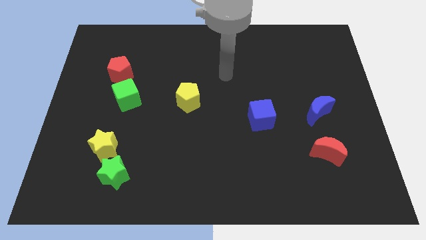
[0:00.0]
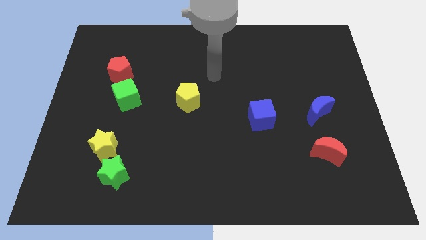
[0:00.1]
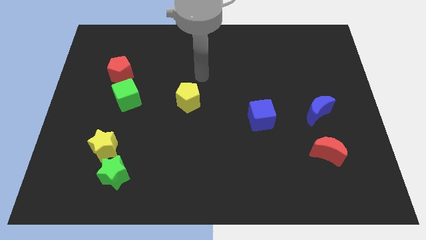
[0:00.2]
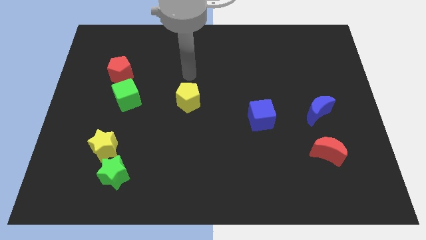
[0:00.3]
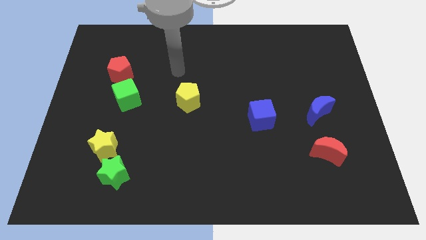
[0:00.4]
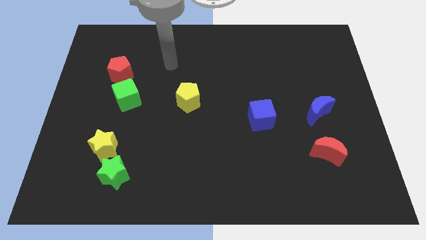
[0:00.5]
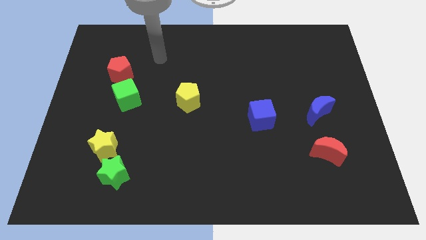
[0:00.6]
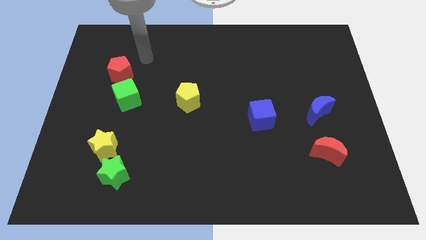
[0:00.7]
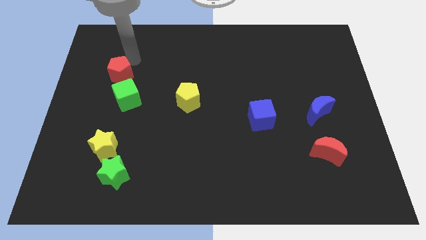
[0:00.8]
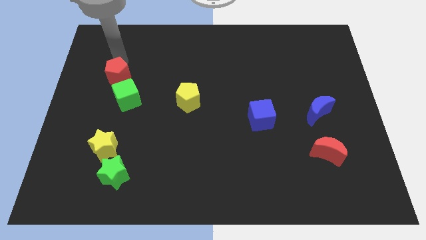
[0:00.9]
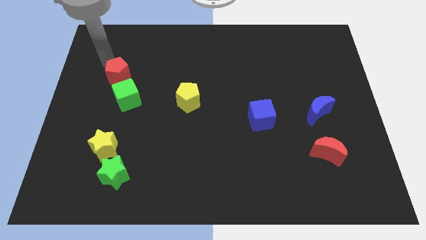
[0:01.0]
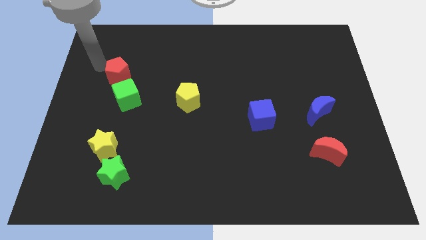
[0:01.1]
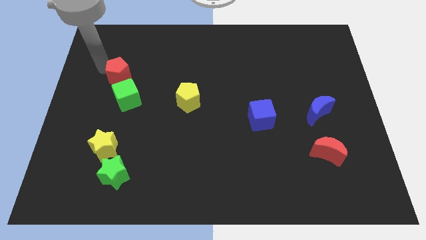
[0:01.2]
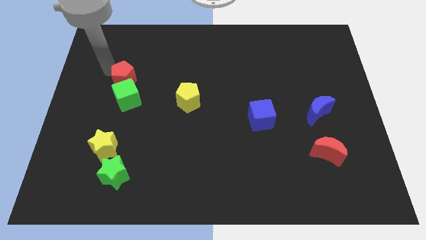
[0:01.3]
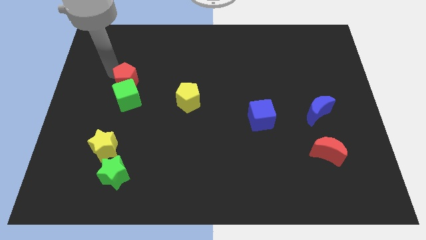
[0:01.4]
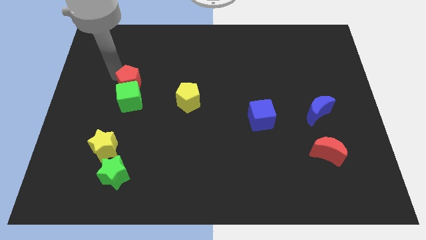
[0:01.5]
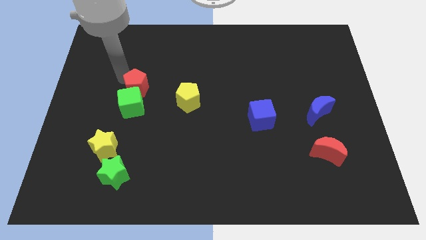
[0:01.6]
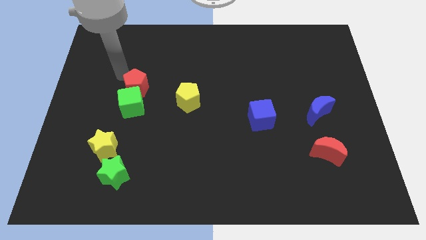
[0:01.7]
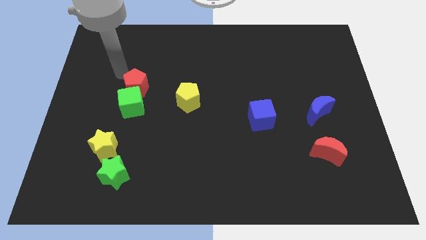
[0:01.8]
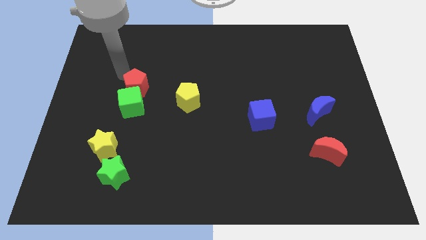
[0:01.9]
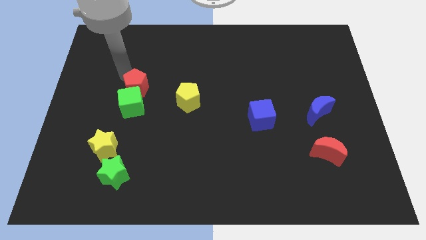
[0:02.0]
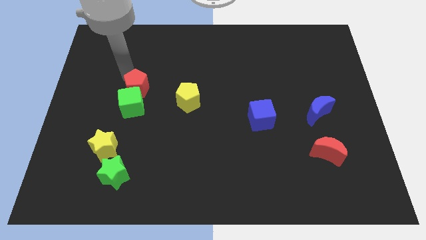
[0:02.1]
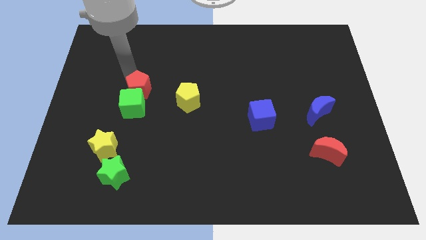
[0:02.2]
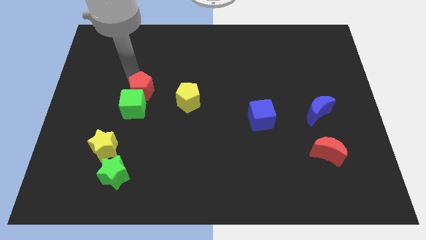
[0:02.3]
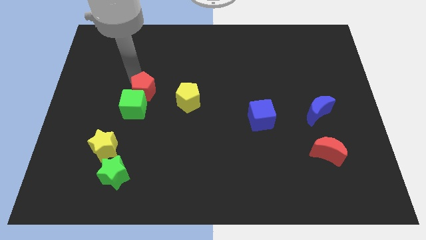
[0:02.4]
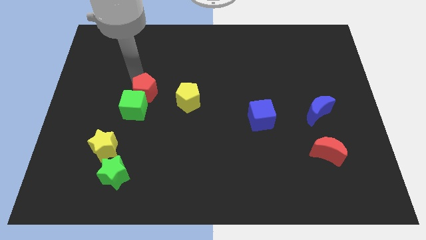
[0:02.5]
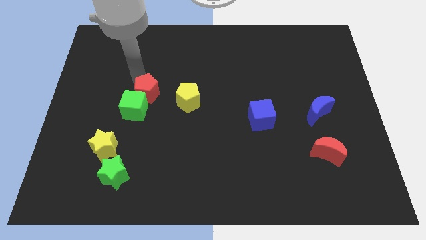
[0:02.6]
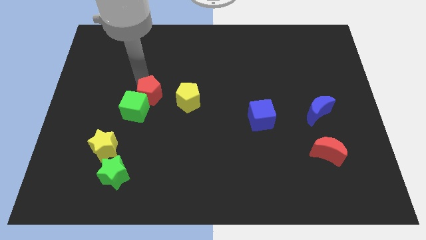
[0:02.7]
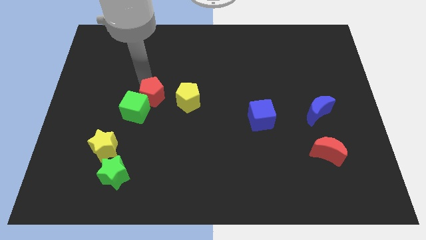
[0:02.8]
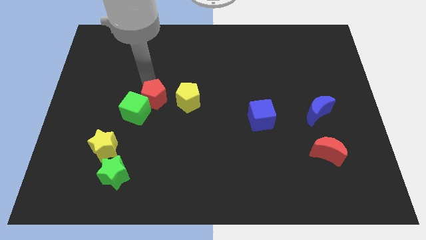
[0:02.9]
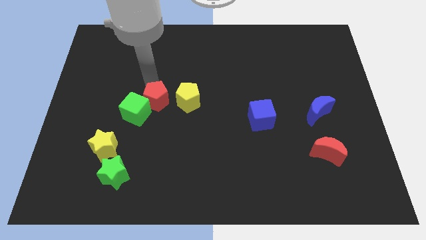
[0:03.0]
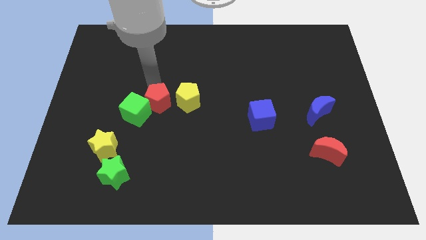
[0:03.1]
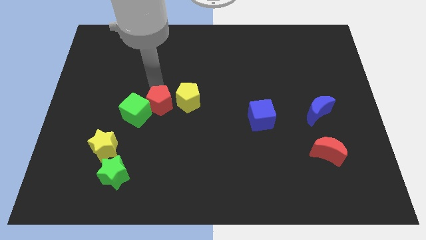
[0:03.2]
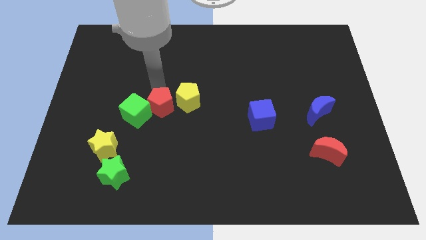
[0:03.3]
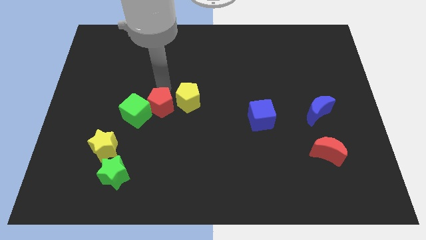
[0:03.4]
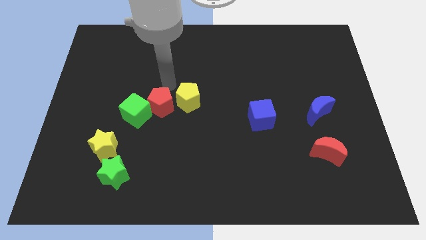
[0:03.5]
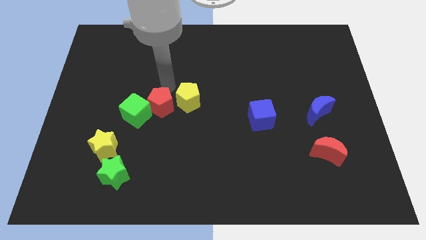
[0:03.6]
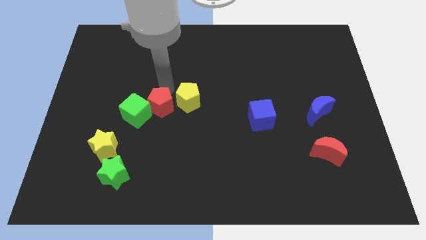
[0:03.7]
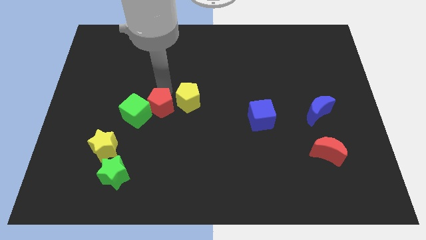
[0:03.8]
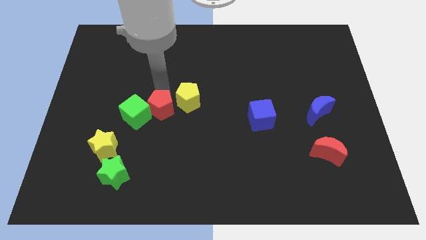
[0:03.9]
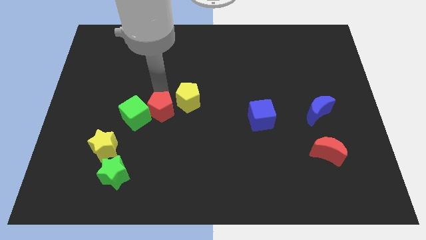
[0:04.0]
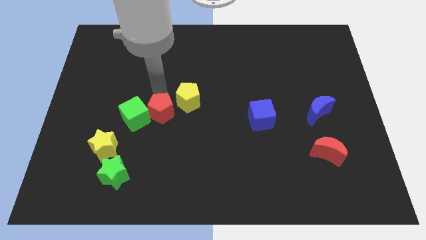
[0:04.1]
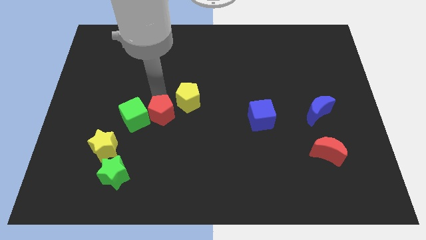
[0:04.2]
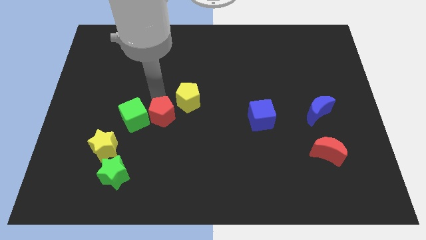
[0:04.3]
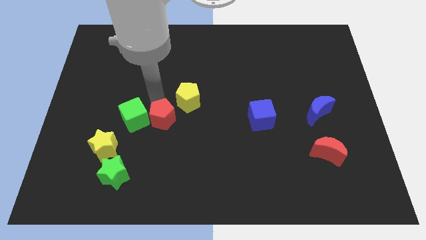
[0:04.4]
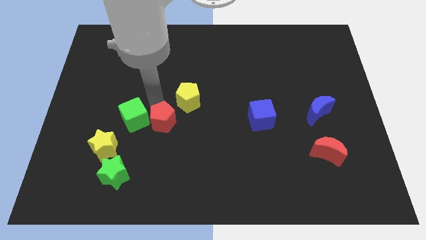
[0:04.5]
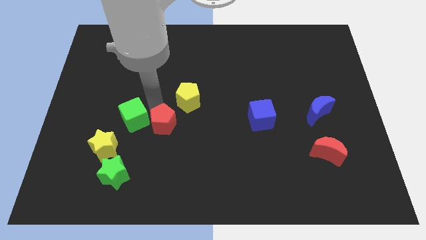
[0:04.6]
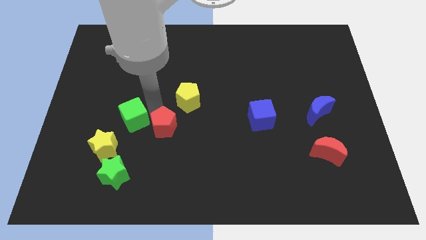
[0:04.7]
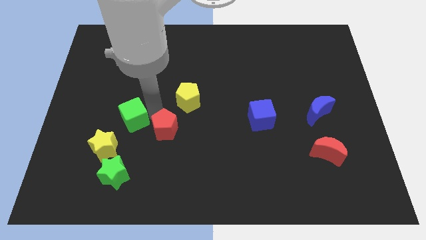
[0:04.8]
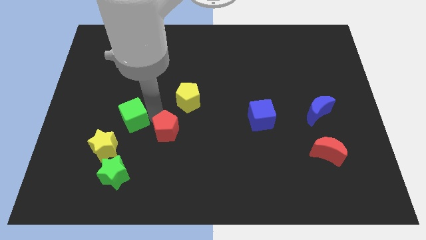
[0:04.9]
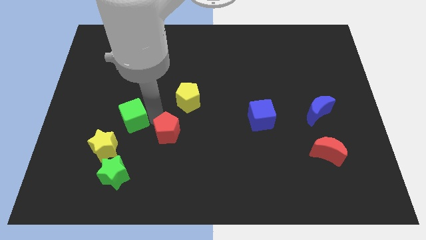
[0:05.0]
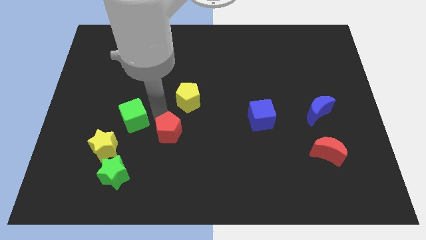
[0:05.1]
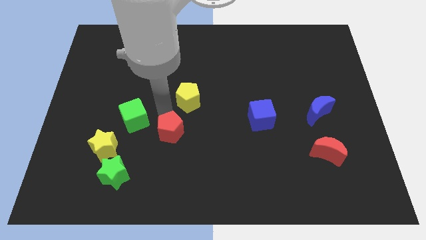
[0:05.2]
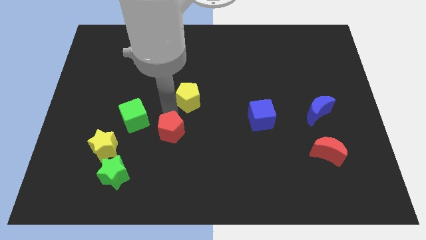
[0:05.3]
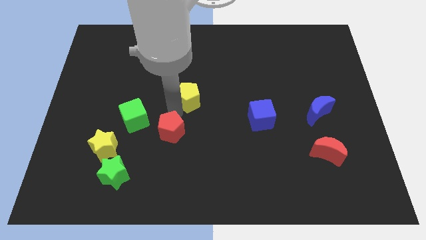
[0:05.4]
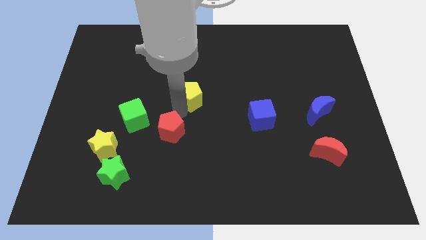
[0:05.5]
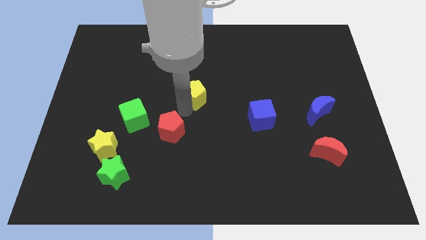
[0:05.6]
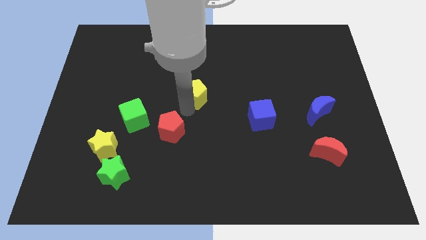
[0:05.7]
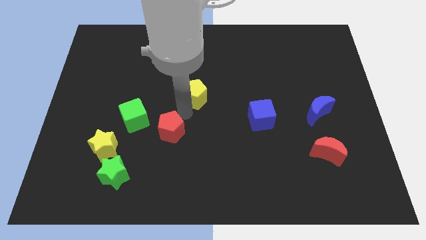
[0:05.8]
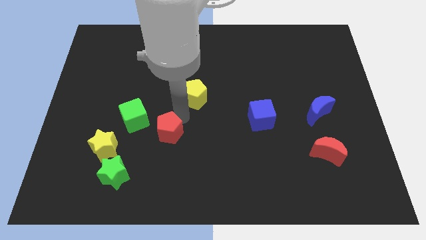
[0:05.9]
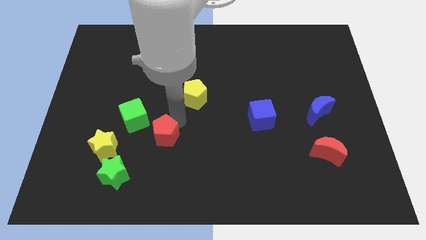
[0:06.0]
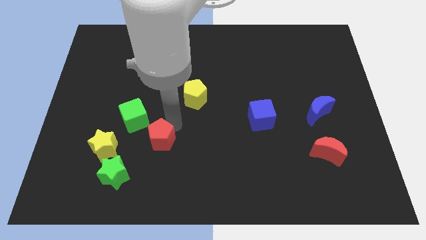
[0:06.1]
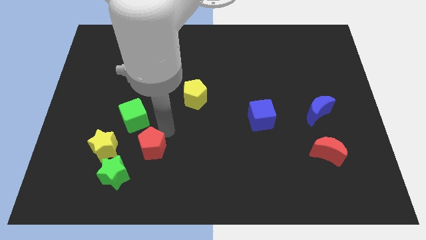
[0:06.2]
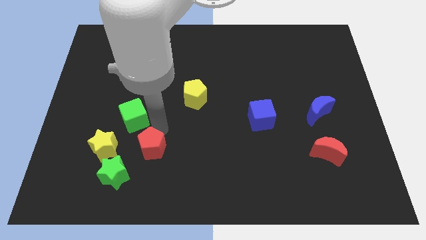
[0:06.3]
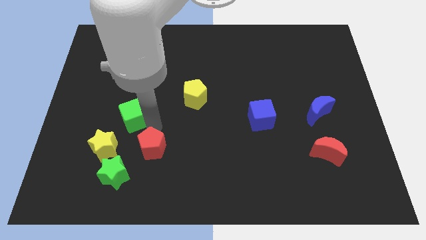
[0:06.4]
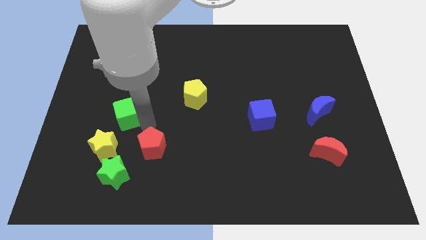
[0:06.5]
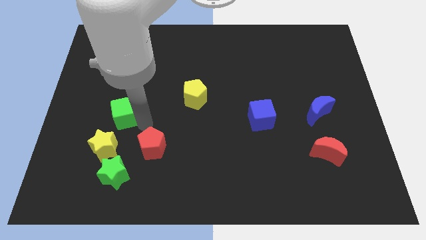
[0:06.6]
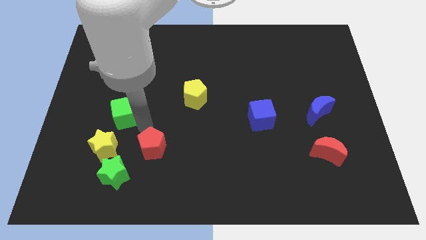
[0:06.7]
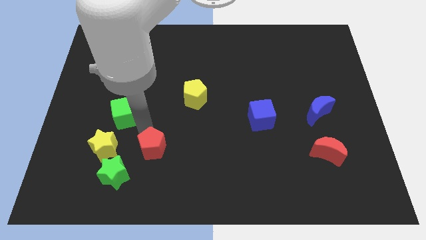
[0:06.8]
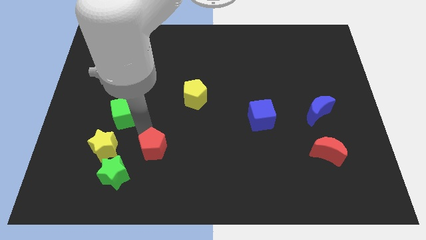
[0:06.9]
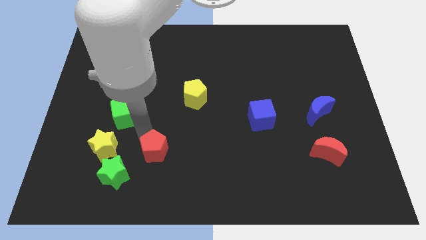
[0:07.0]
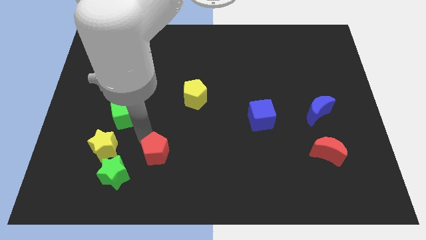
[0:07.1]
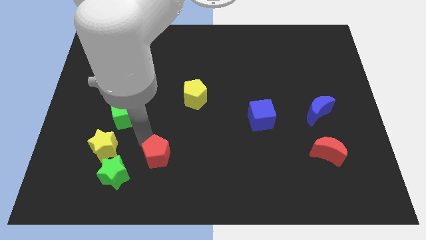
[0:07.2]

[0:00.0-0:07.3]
put the red pentagon to the right side of the green star
